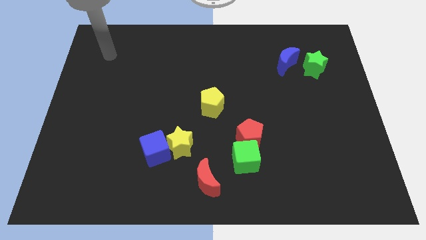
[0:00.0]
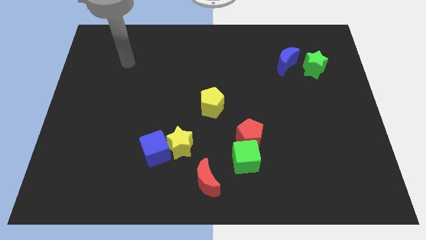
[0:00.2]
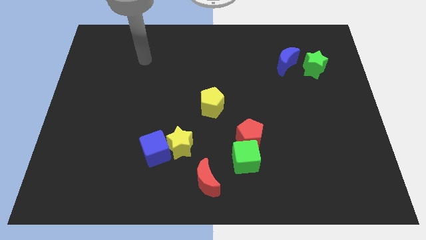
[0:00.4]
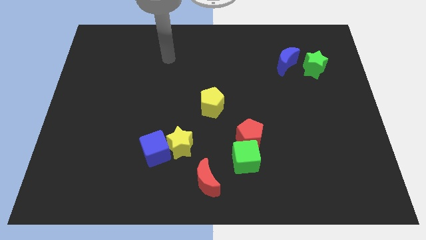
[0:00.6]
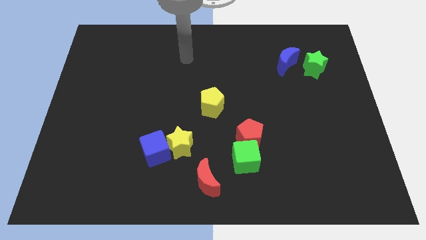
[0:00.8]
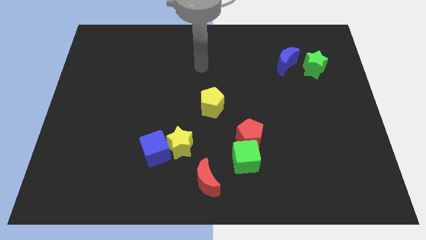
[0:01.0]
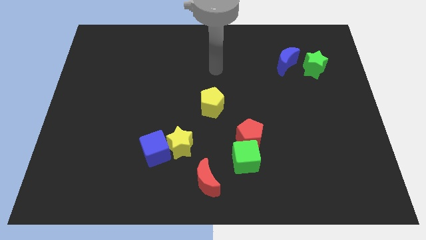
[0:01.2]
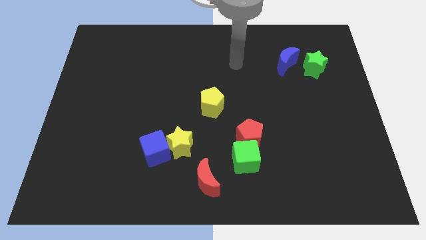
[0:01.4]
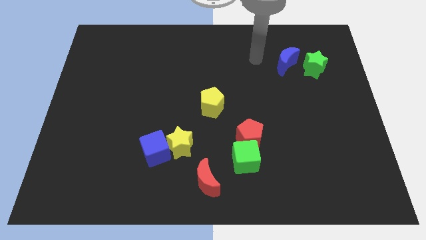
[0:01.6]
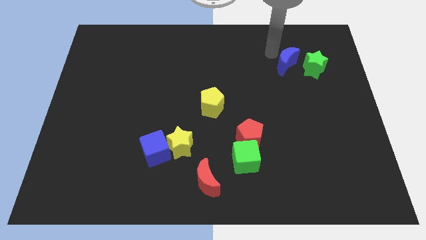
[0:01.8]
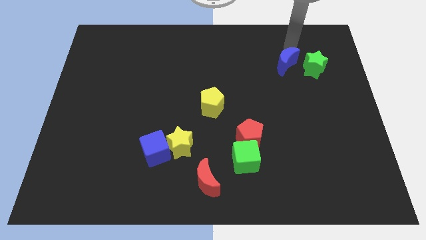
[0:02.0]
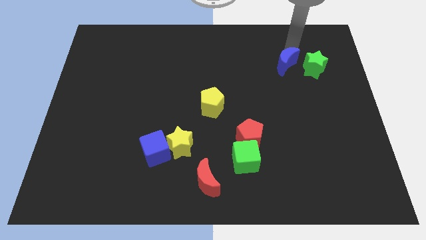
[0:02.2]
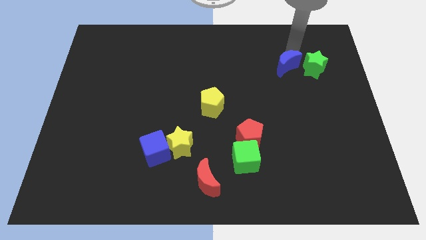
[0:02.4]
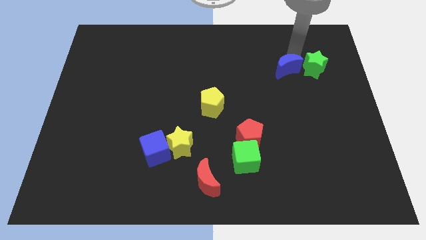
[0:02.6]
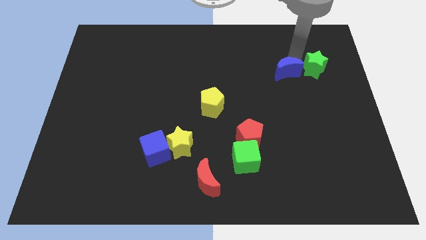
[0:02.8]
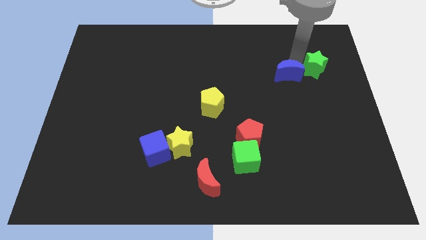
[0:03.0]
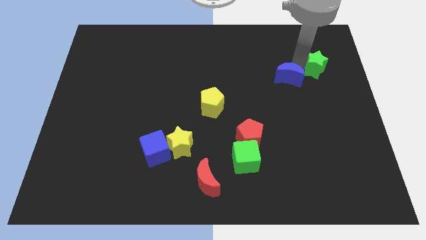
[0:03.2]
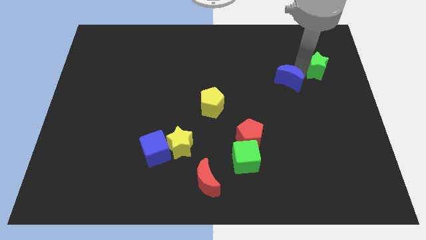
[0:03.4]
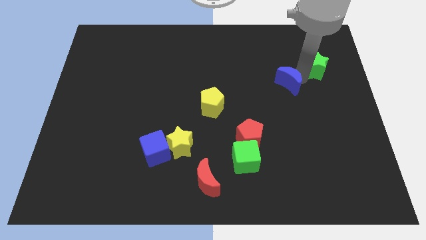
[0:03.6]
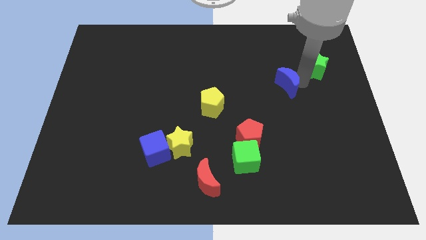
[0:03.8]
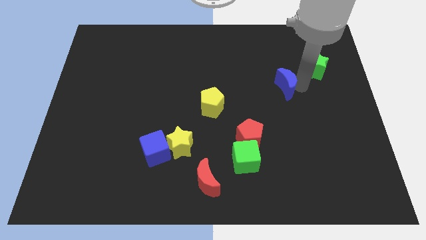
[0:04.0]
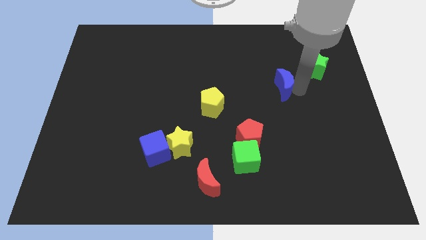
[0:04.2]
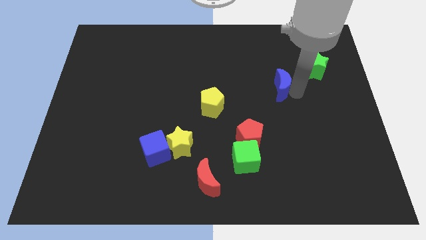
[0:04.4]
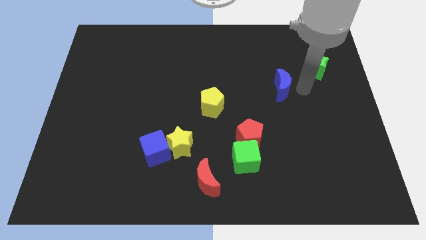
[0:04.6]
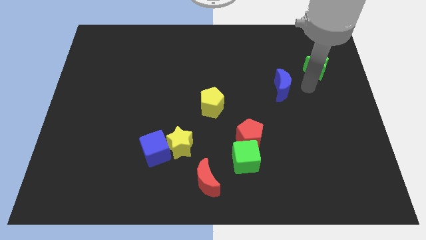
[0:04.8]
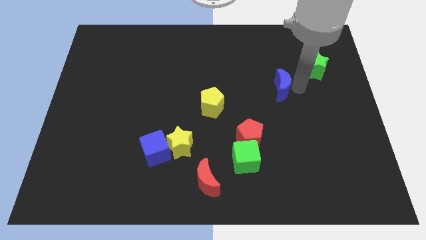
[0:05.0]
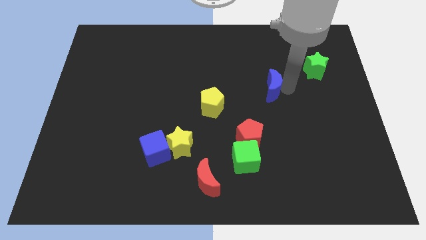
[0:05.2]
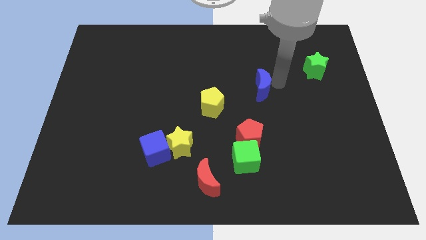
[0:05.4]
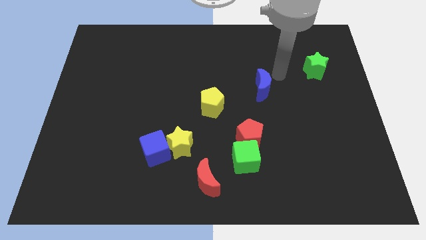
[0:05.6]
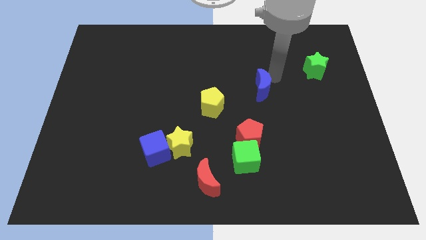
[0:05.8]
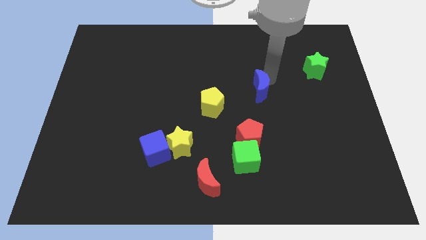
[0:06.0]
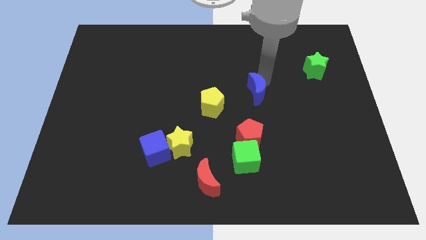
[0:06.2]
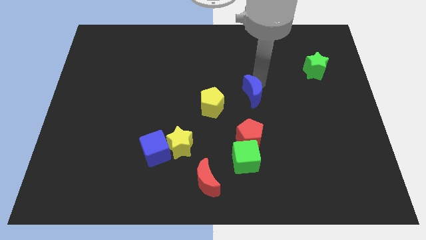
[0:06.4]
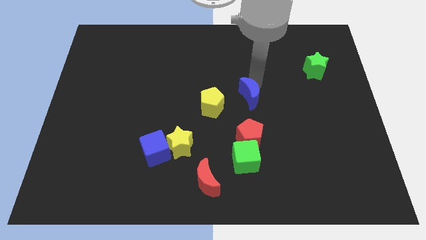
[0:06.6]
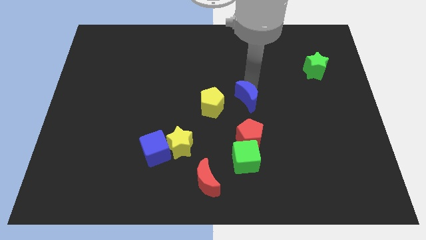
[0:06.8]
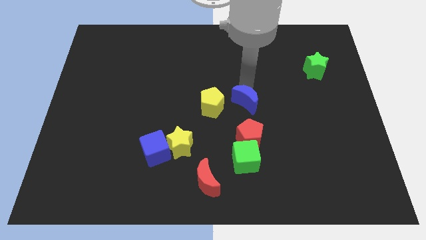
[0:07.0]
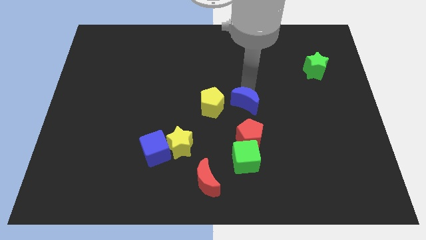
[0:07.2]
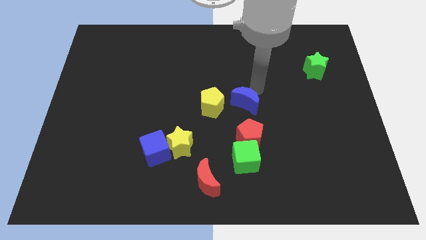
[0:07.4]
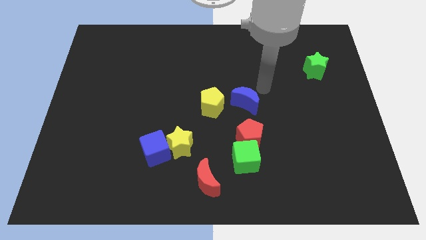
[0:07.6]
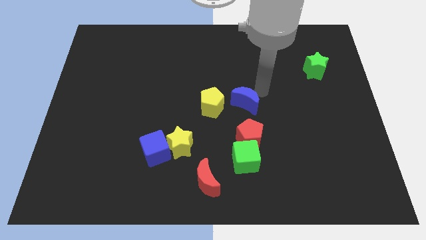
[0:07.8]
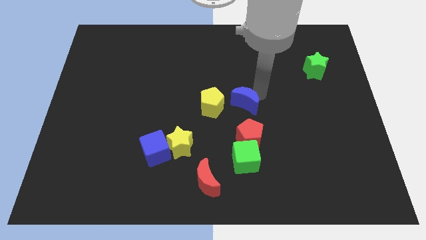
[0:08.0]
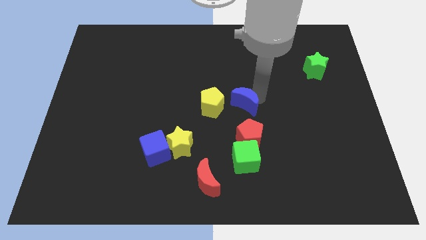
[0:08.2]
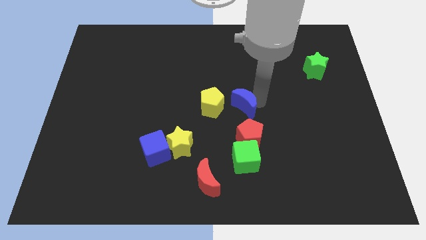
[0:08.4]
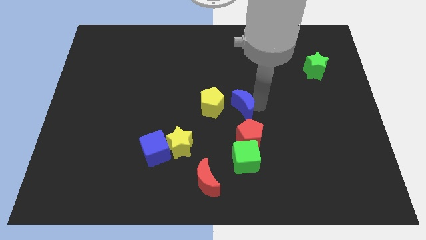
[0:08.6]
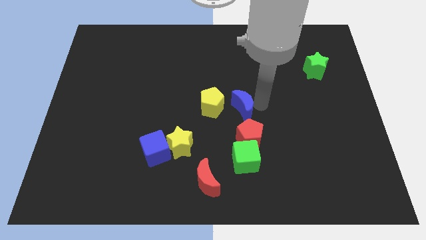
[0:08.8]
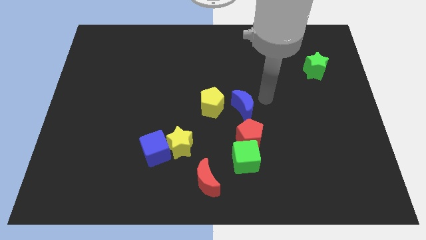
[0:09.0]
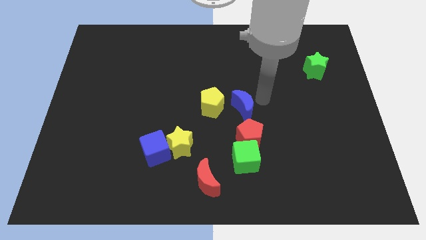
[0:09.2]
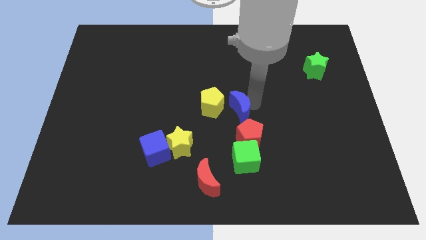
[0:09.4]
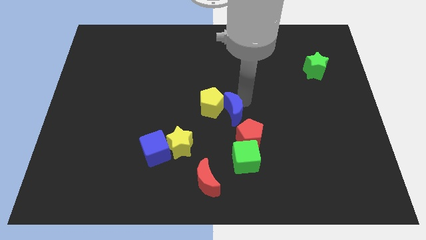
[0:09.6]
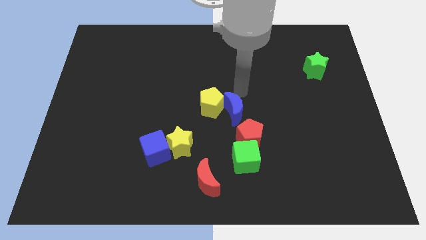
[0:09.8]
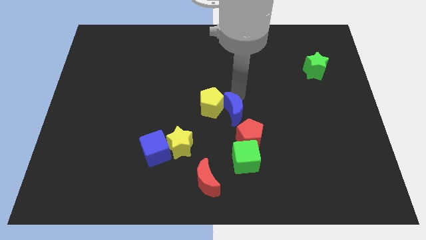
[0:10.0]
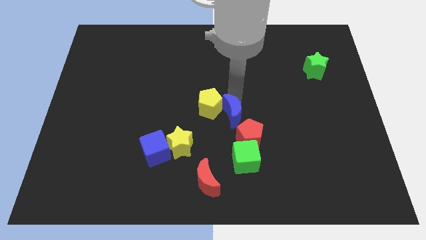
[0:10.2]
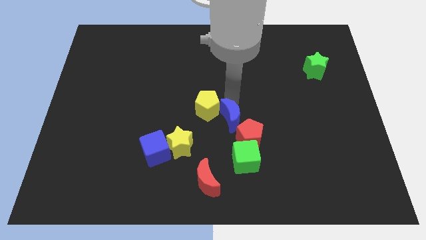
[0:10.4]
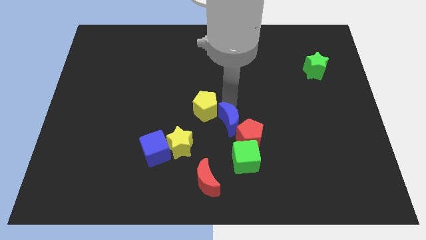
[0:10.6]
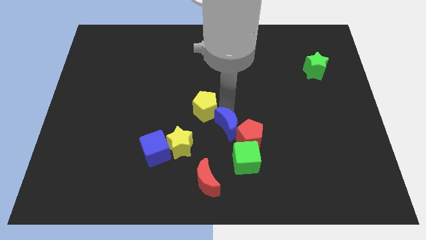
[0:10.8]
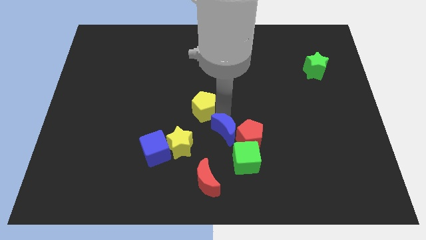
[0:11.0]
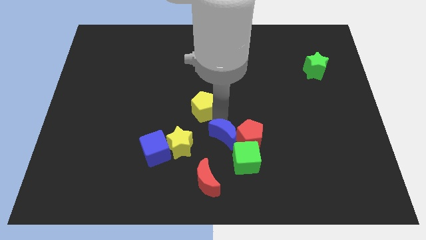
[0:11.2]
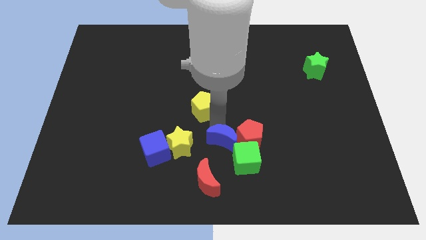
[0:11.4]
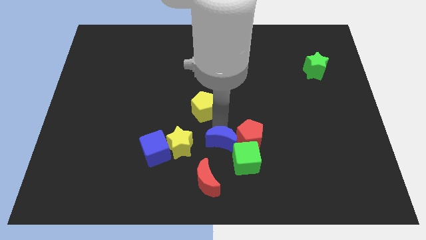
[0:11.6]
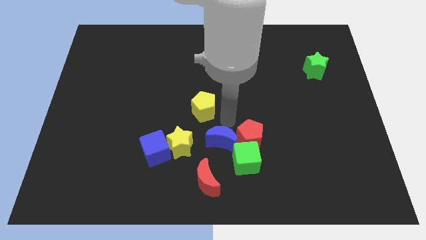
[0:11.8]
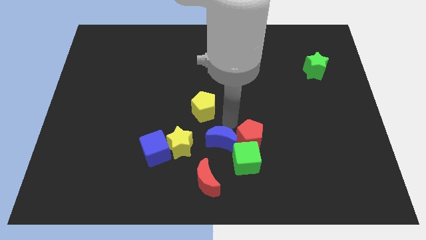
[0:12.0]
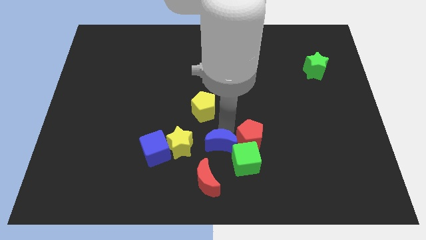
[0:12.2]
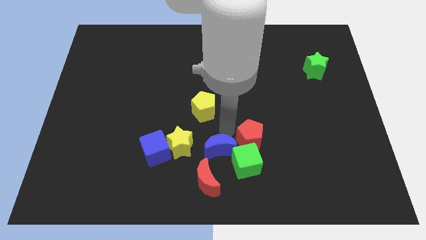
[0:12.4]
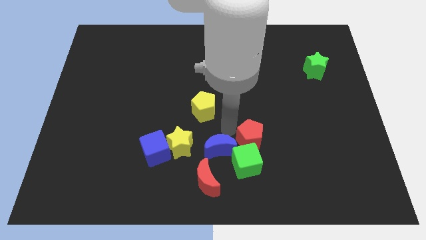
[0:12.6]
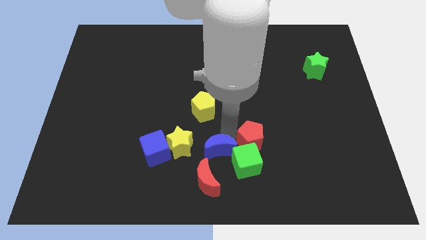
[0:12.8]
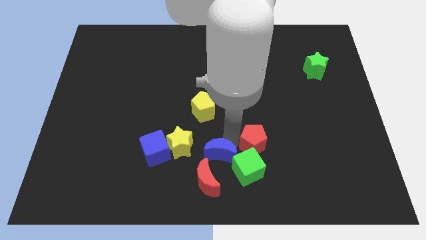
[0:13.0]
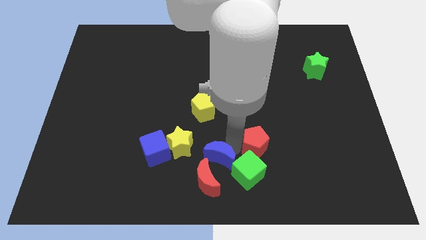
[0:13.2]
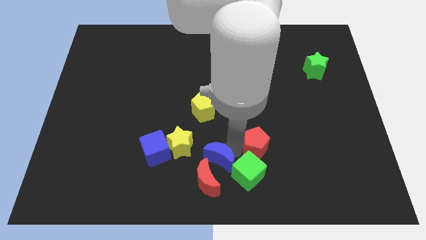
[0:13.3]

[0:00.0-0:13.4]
move the blue moon next to the red moon
